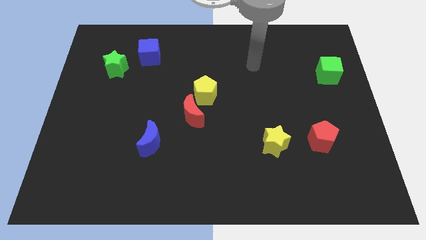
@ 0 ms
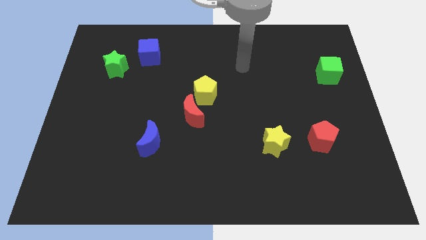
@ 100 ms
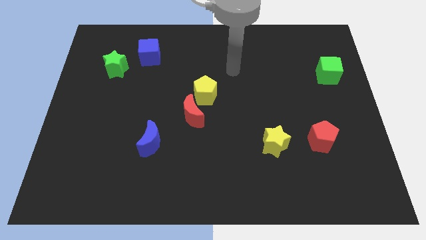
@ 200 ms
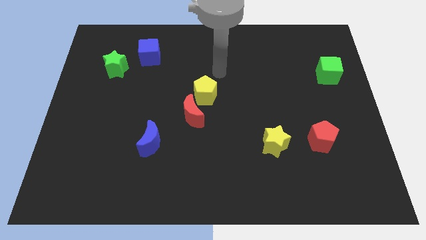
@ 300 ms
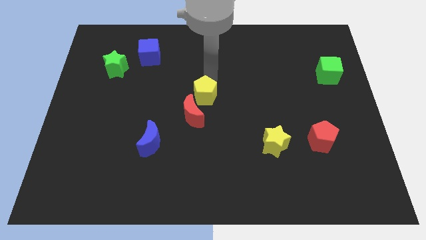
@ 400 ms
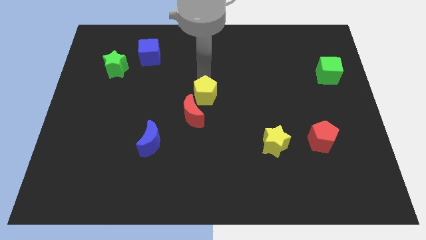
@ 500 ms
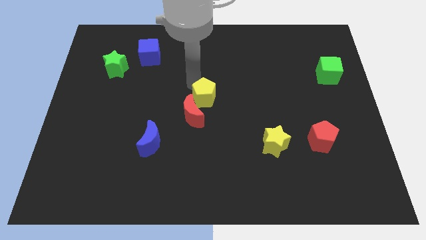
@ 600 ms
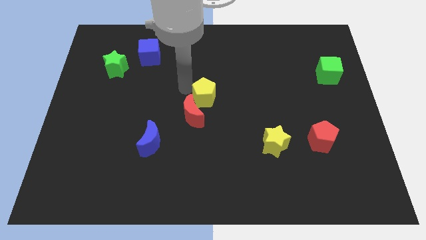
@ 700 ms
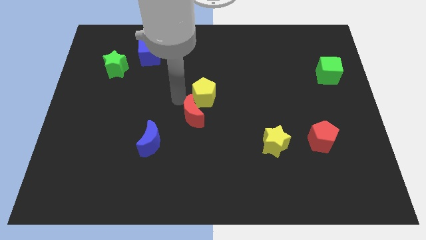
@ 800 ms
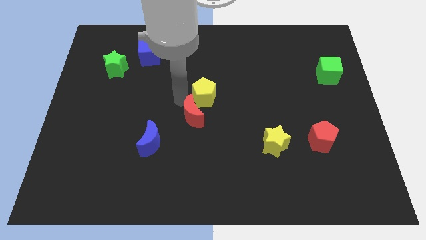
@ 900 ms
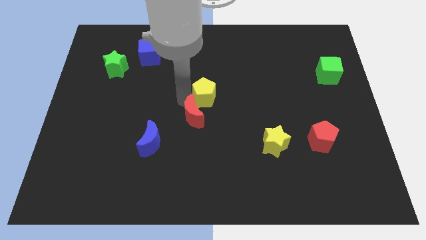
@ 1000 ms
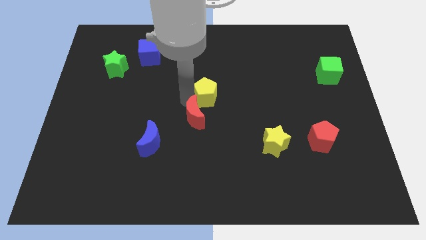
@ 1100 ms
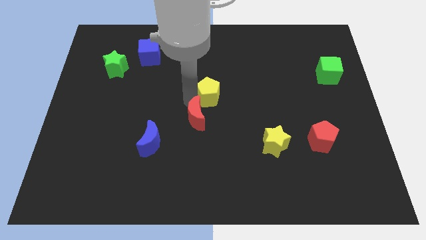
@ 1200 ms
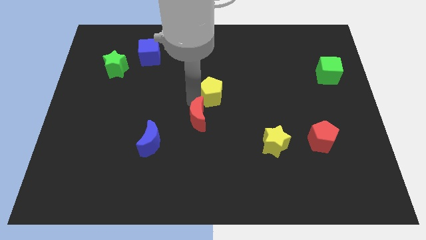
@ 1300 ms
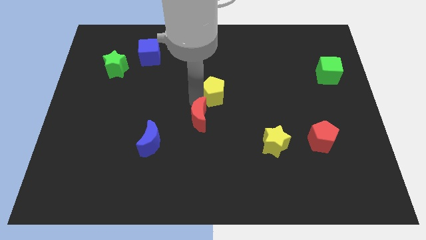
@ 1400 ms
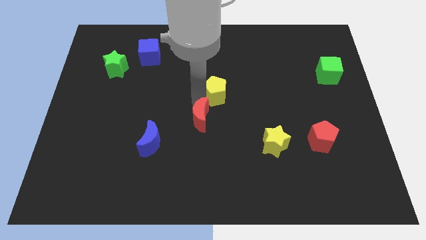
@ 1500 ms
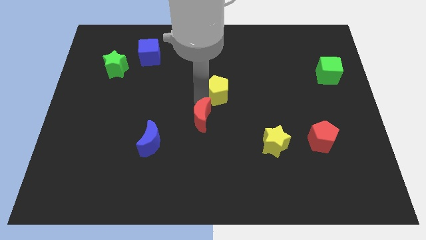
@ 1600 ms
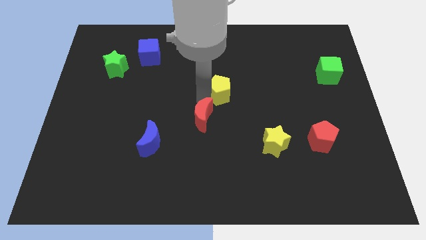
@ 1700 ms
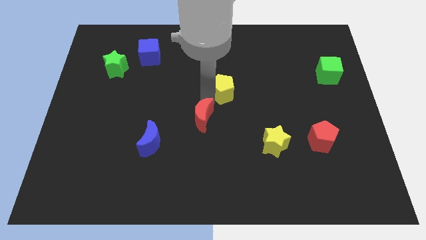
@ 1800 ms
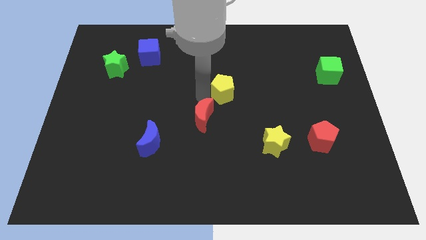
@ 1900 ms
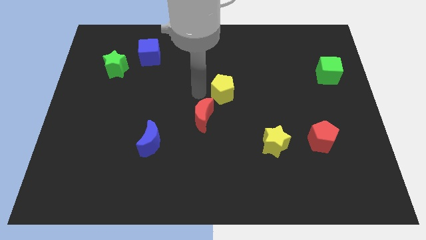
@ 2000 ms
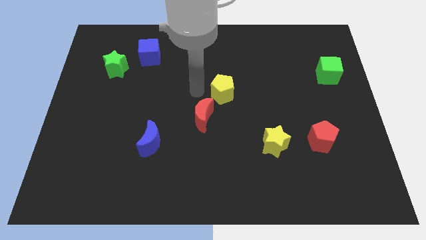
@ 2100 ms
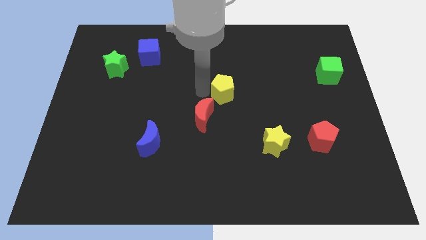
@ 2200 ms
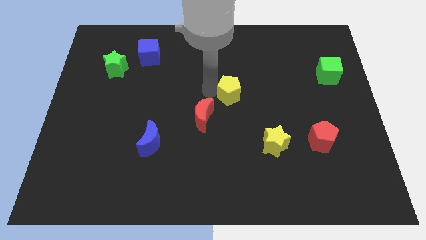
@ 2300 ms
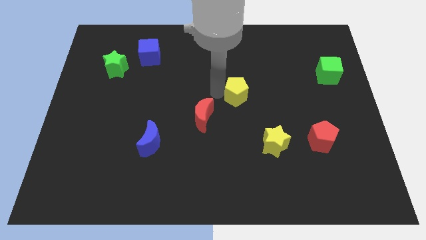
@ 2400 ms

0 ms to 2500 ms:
slide the yellow pentagon right somewhat

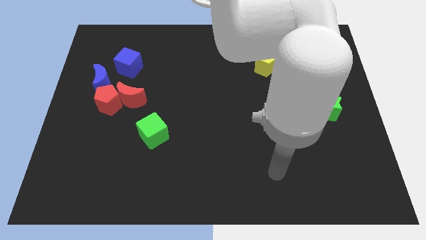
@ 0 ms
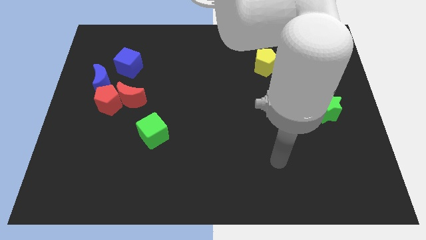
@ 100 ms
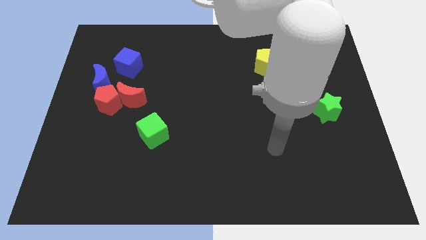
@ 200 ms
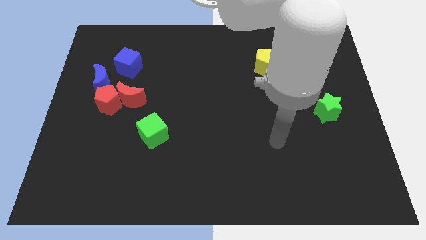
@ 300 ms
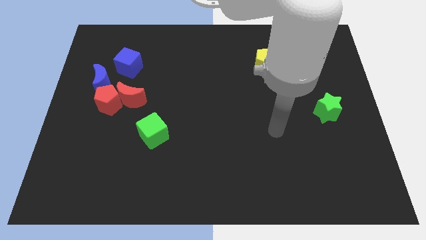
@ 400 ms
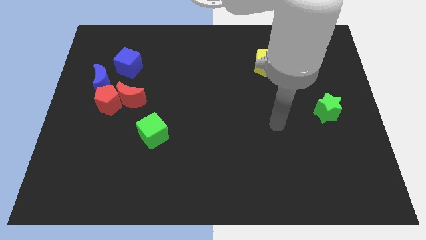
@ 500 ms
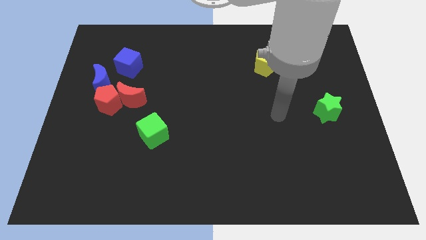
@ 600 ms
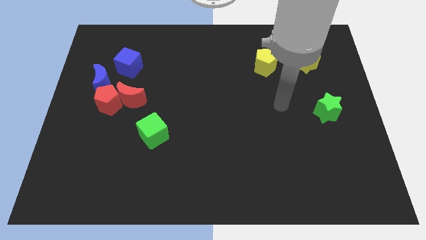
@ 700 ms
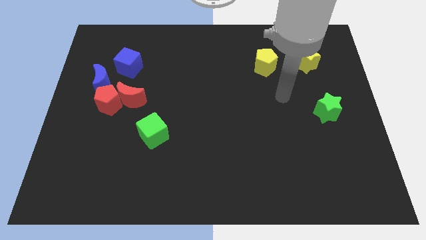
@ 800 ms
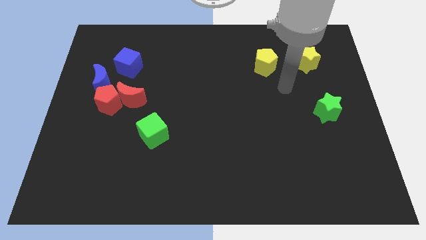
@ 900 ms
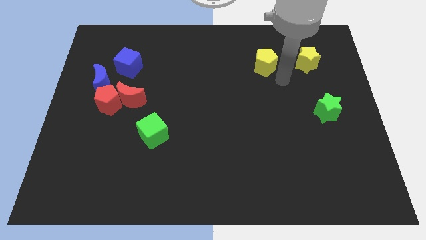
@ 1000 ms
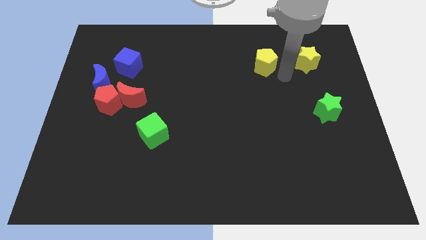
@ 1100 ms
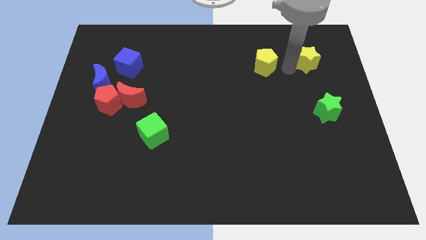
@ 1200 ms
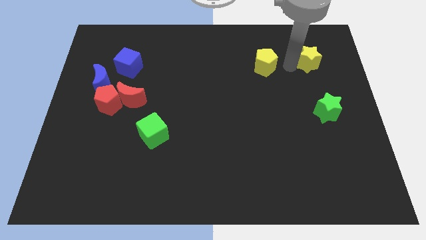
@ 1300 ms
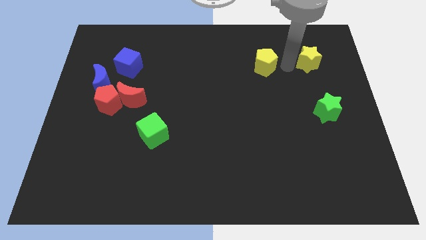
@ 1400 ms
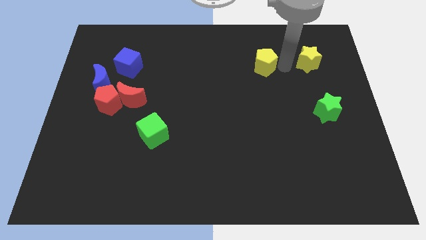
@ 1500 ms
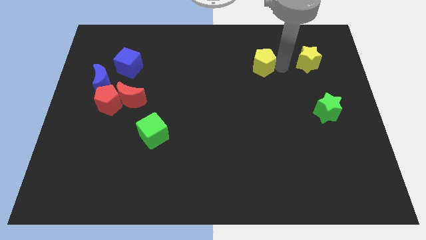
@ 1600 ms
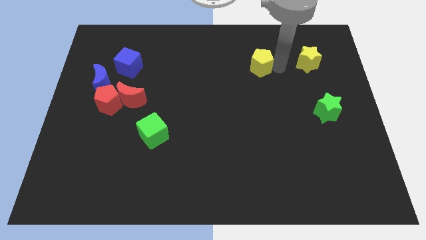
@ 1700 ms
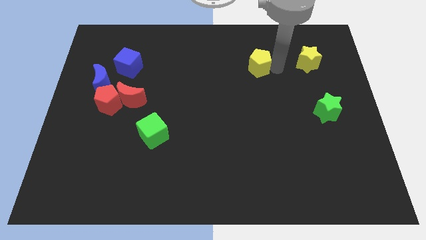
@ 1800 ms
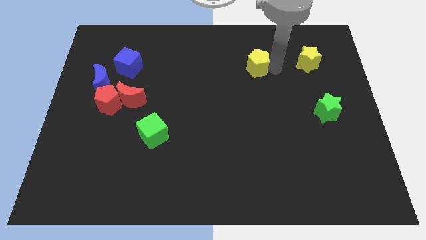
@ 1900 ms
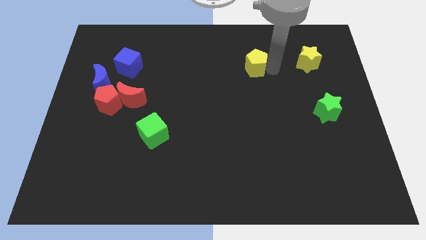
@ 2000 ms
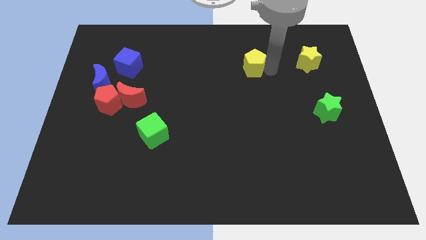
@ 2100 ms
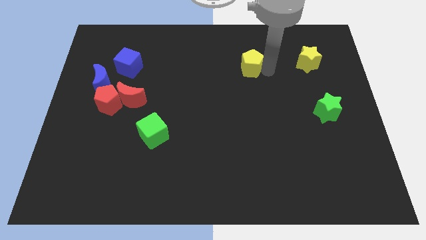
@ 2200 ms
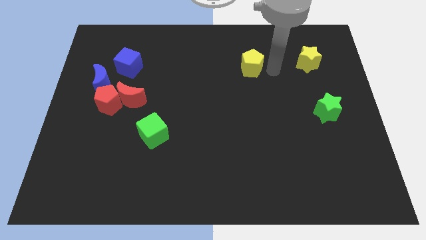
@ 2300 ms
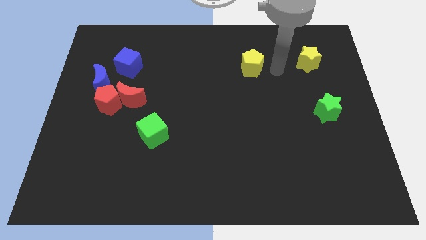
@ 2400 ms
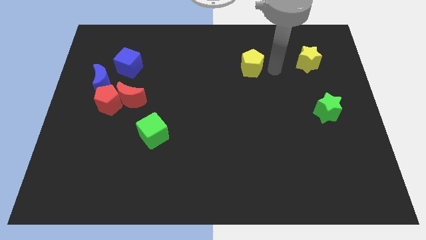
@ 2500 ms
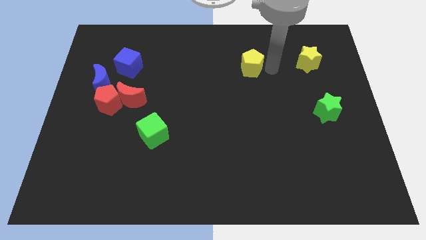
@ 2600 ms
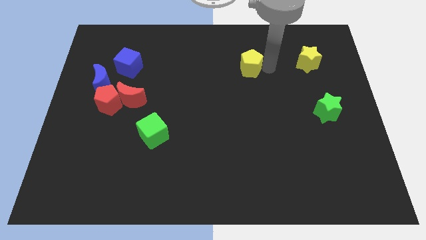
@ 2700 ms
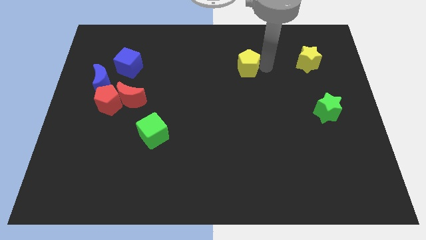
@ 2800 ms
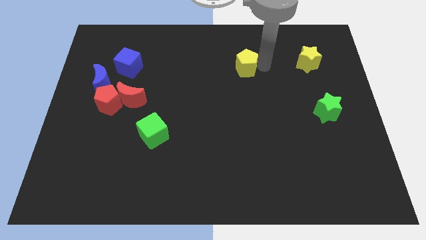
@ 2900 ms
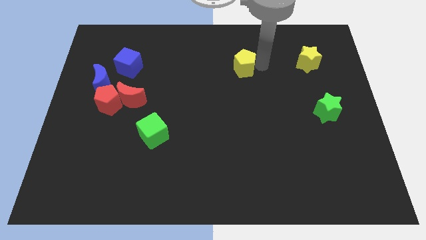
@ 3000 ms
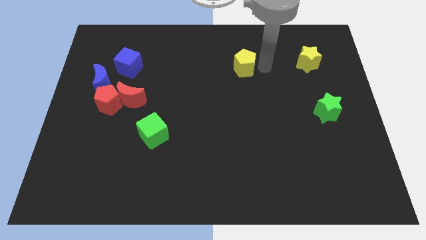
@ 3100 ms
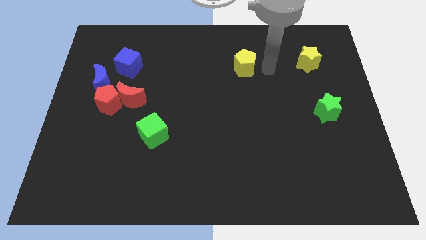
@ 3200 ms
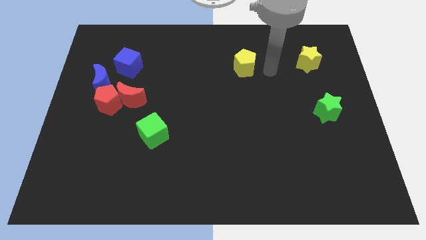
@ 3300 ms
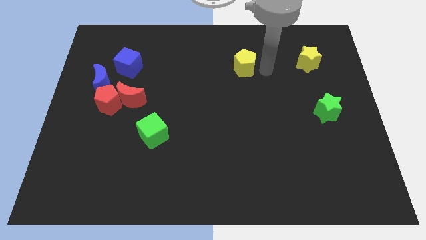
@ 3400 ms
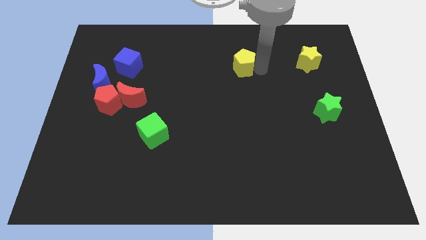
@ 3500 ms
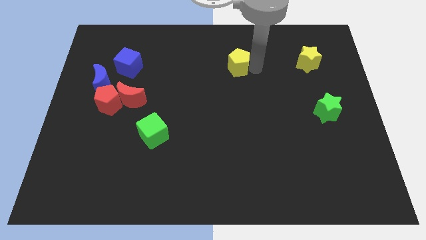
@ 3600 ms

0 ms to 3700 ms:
slide the yellow pentagon left a bit

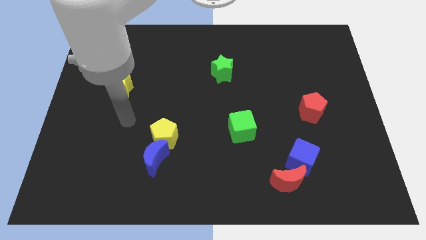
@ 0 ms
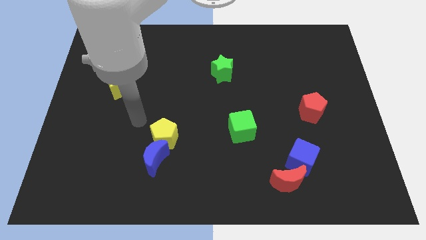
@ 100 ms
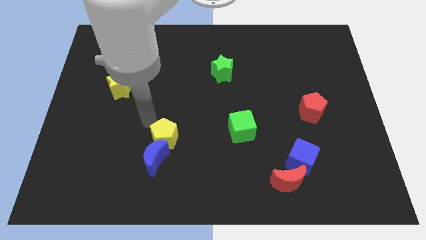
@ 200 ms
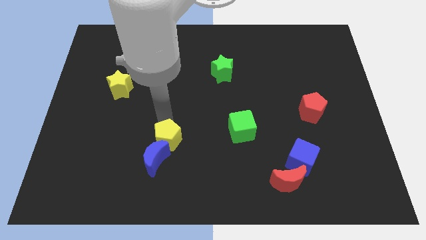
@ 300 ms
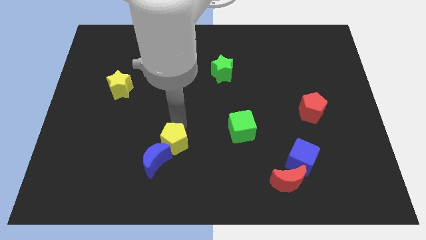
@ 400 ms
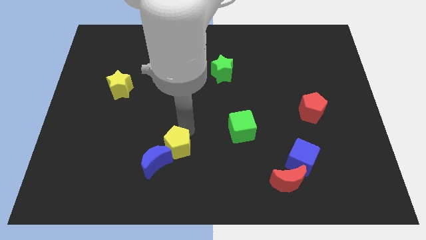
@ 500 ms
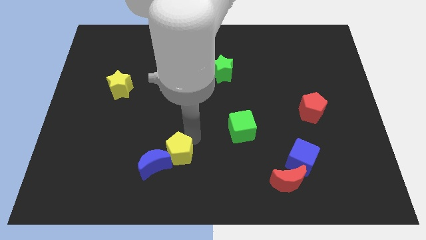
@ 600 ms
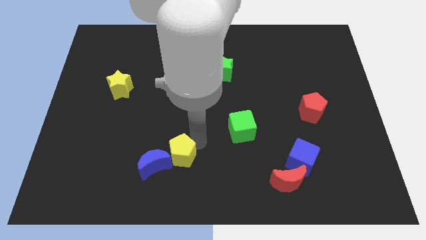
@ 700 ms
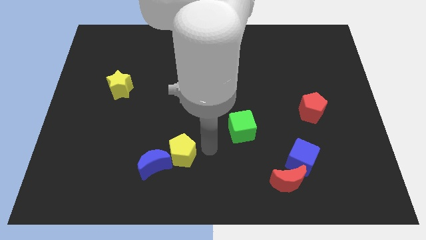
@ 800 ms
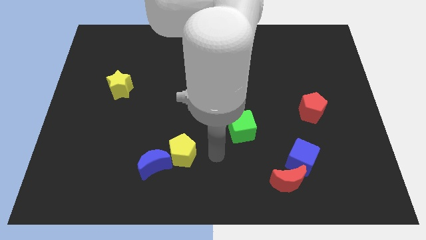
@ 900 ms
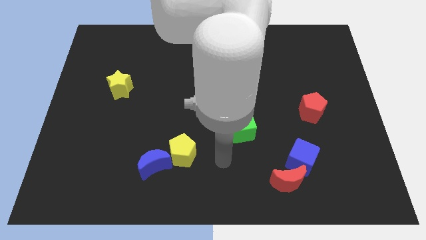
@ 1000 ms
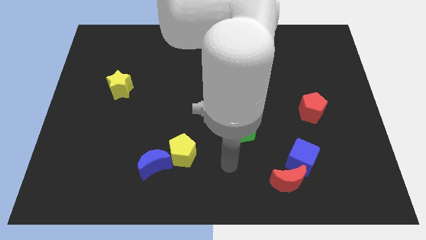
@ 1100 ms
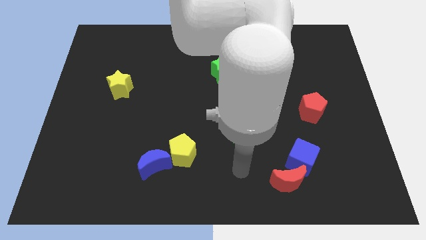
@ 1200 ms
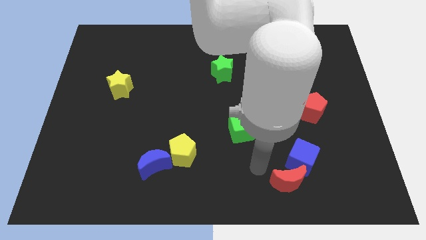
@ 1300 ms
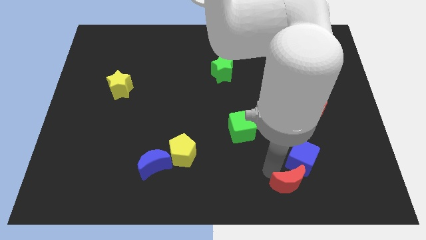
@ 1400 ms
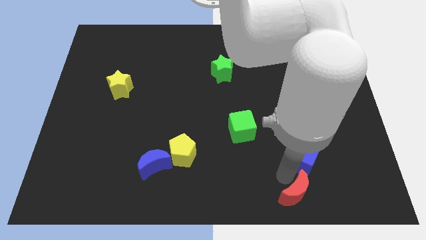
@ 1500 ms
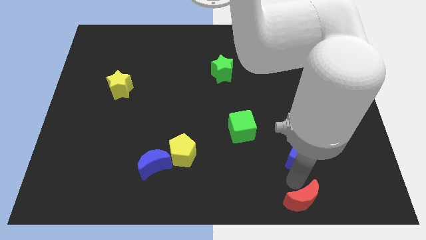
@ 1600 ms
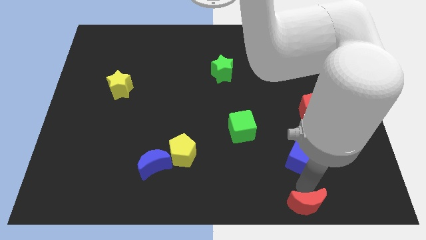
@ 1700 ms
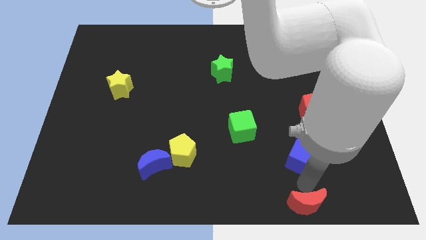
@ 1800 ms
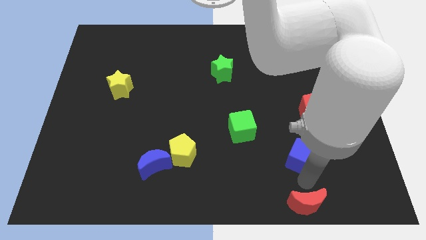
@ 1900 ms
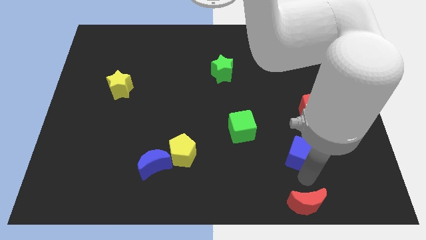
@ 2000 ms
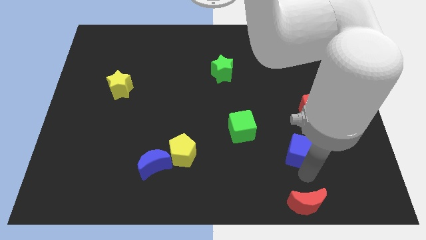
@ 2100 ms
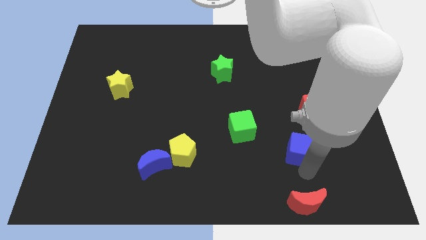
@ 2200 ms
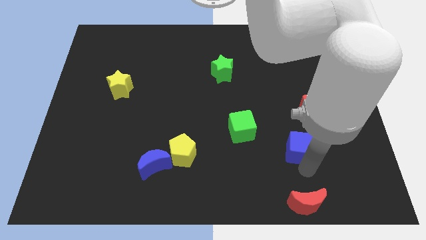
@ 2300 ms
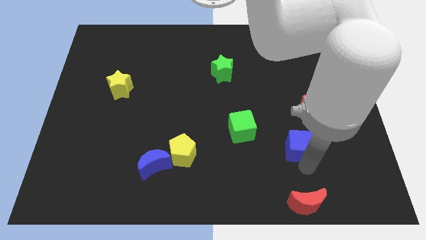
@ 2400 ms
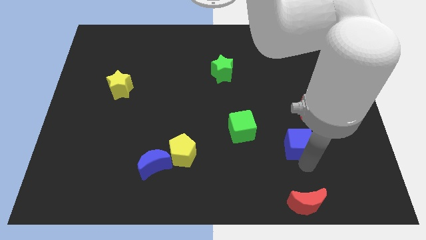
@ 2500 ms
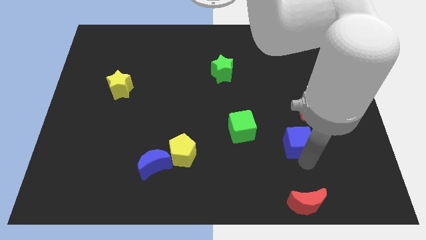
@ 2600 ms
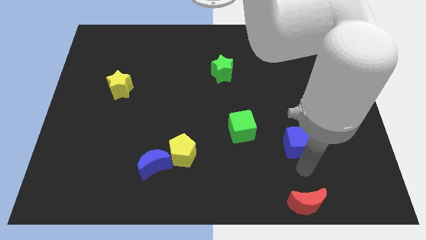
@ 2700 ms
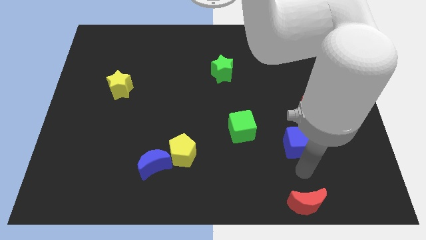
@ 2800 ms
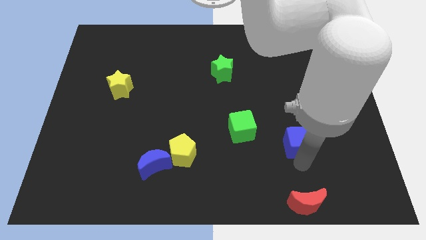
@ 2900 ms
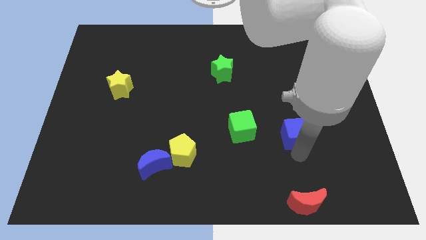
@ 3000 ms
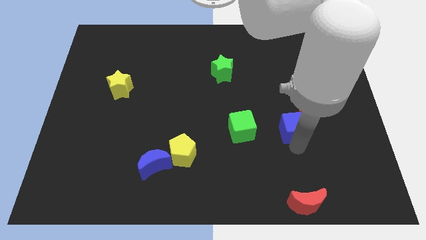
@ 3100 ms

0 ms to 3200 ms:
slightly move the blue cube up
